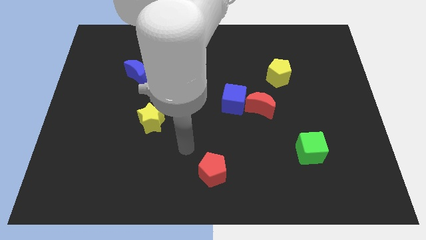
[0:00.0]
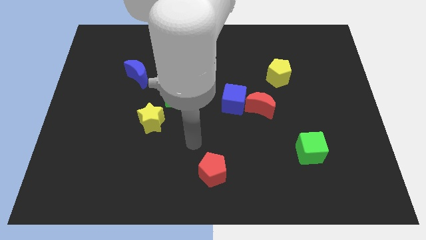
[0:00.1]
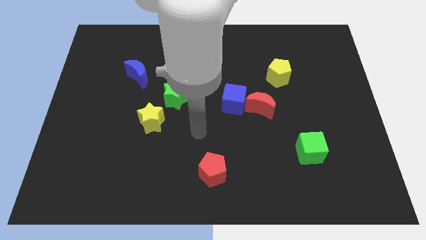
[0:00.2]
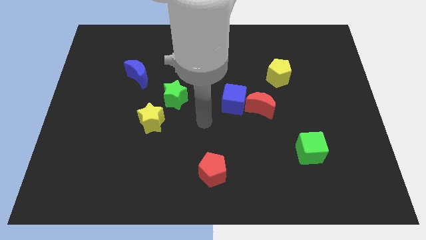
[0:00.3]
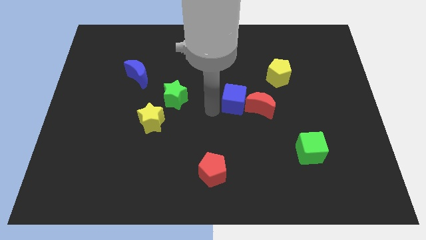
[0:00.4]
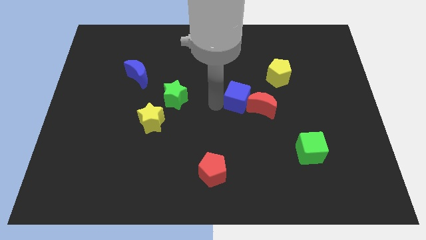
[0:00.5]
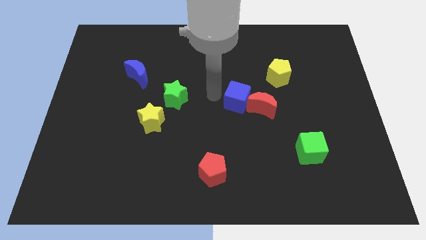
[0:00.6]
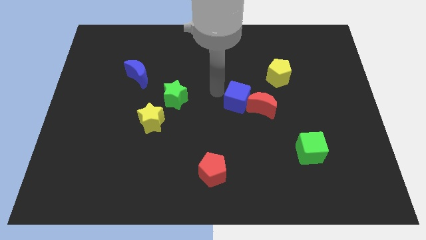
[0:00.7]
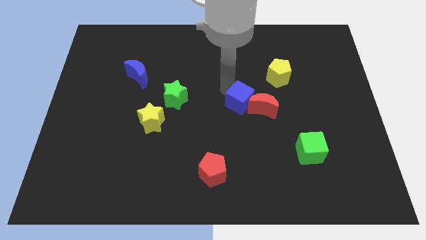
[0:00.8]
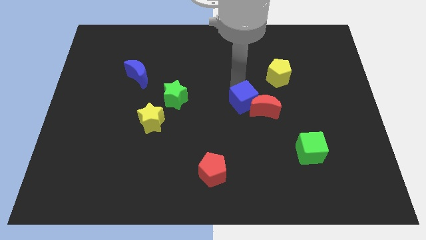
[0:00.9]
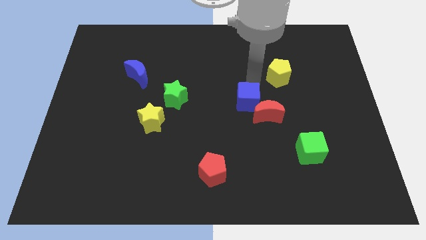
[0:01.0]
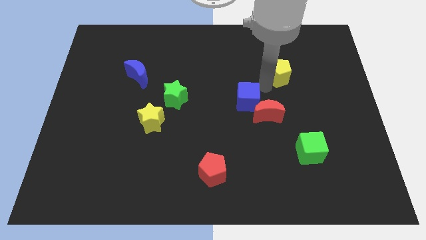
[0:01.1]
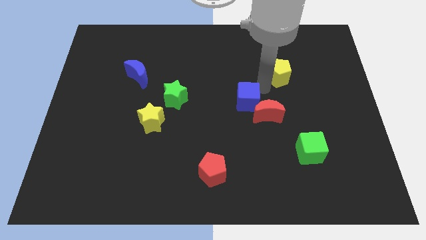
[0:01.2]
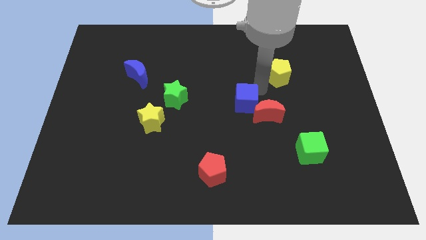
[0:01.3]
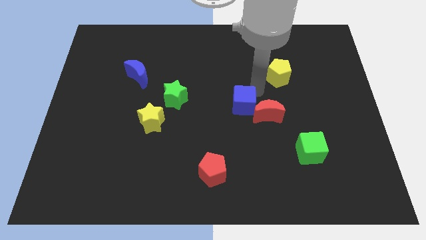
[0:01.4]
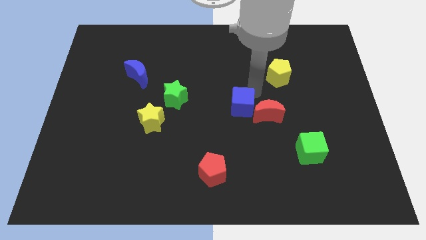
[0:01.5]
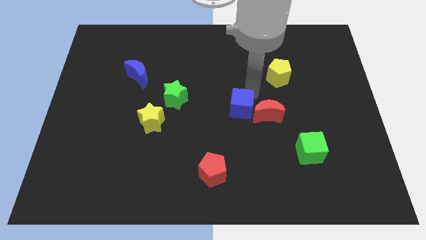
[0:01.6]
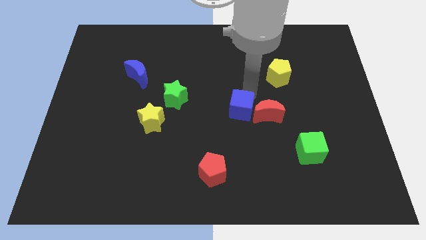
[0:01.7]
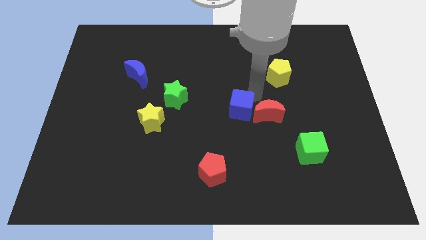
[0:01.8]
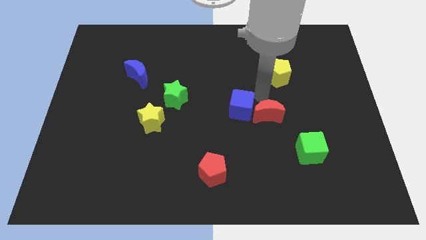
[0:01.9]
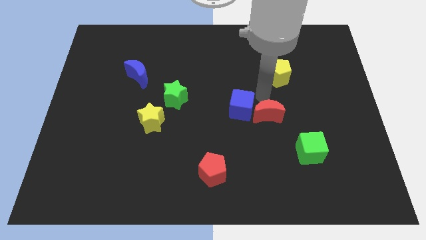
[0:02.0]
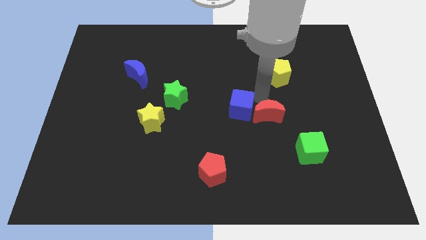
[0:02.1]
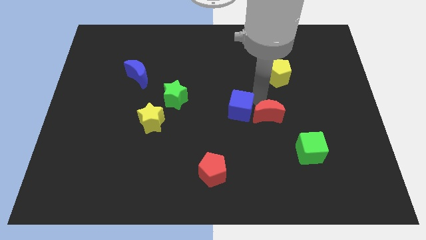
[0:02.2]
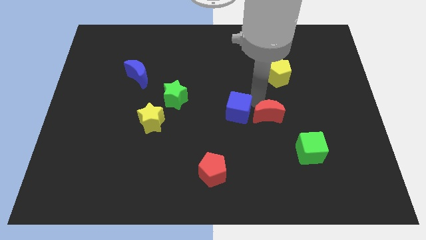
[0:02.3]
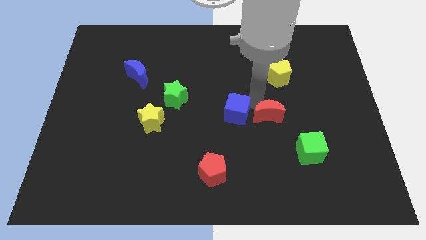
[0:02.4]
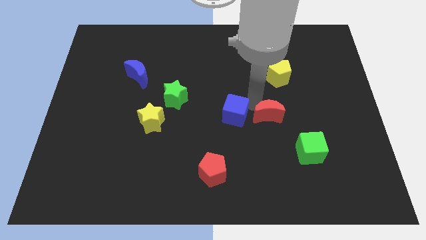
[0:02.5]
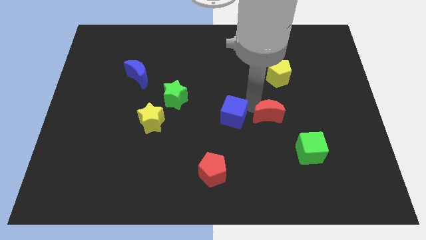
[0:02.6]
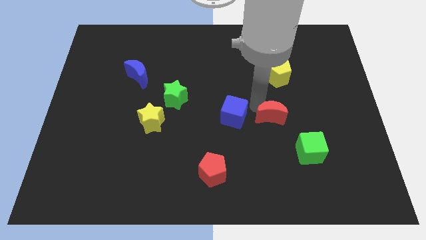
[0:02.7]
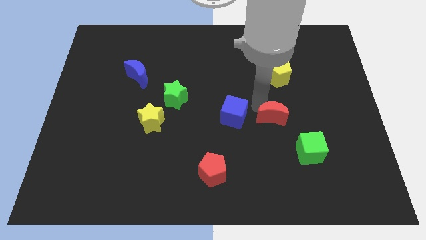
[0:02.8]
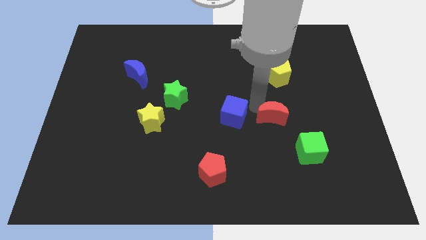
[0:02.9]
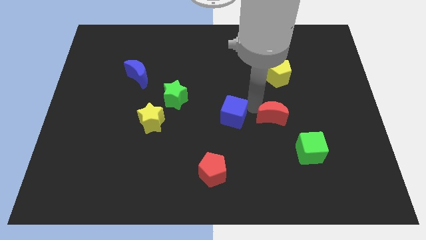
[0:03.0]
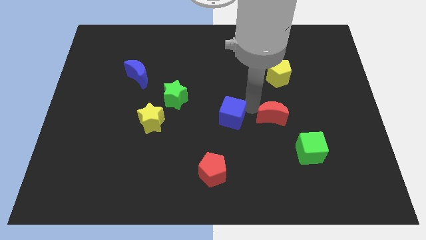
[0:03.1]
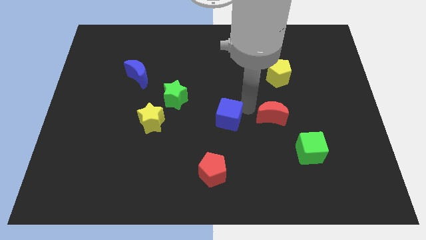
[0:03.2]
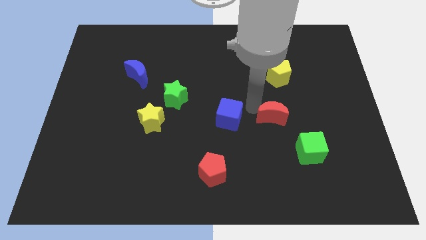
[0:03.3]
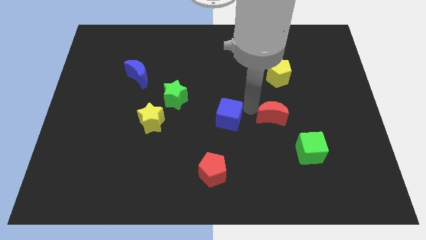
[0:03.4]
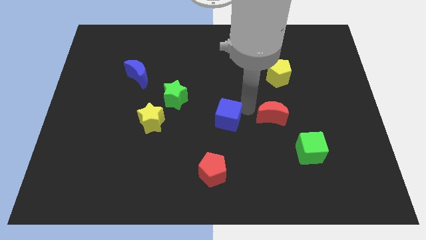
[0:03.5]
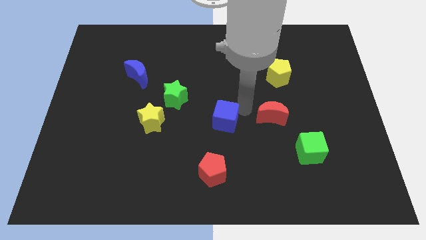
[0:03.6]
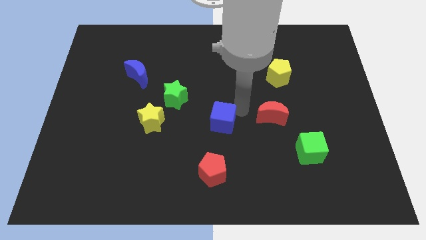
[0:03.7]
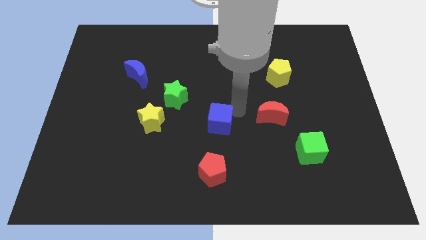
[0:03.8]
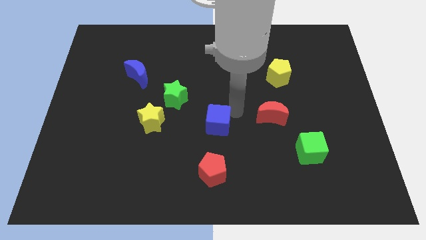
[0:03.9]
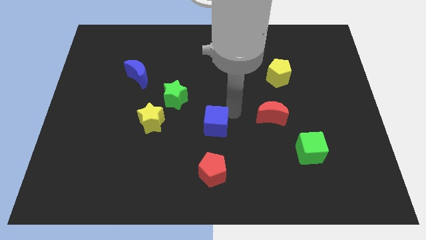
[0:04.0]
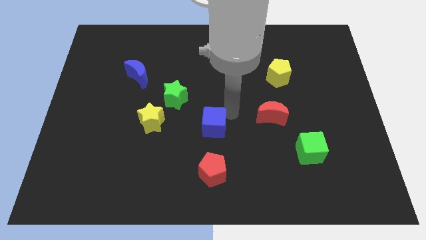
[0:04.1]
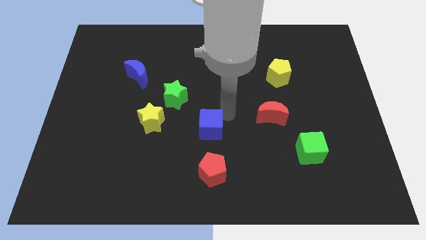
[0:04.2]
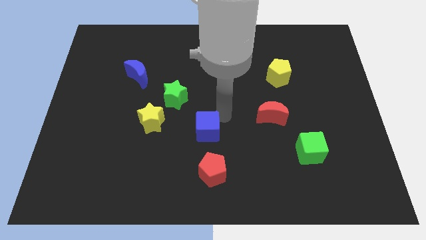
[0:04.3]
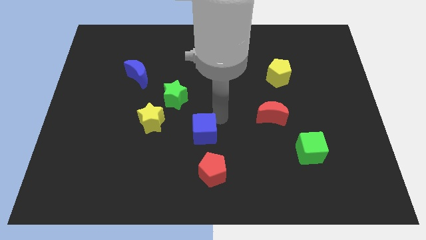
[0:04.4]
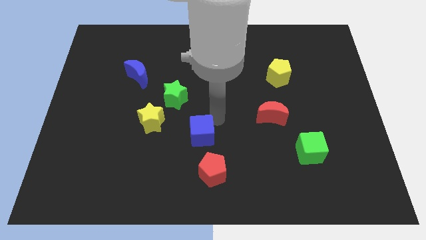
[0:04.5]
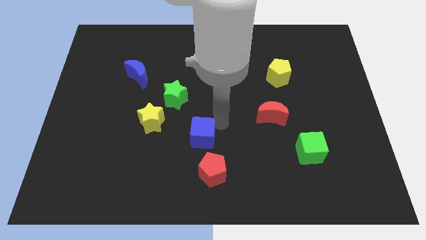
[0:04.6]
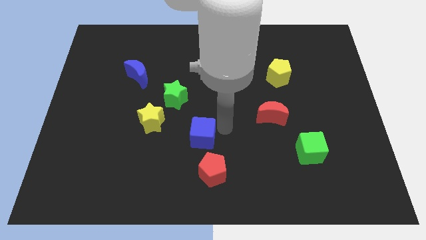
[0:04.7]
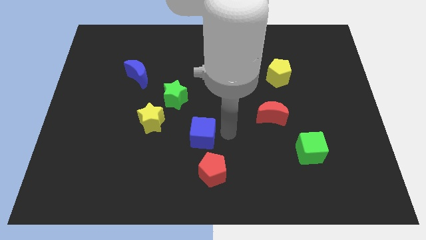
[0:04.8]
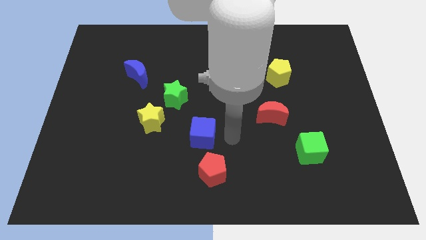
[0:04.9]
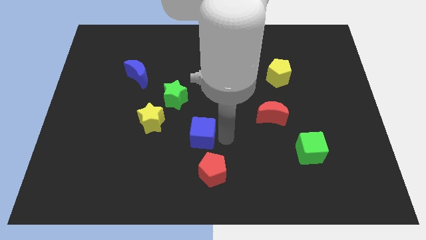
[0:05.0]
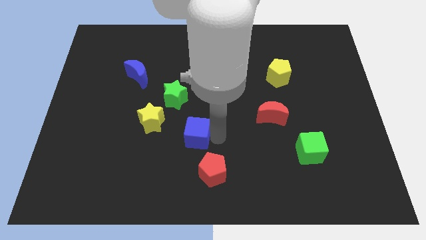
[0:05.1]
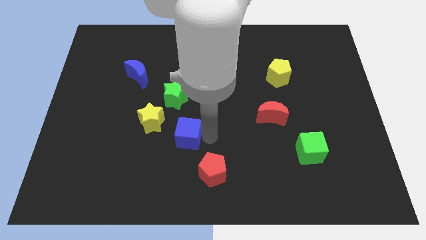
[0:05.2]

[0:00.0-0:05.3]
put the blue cube below the green star

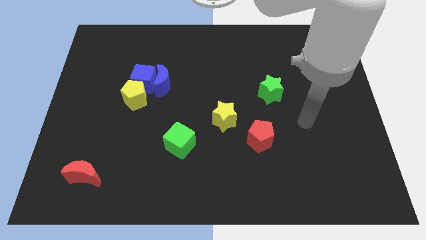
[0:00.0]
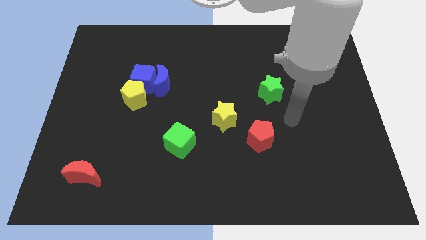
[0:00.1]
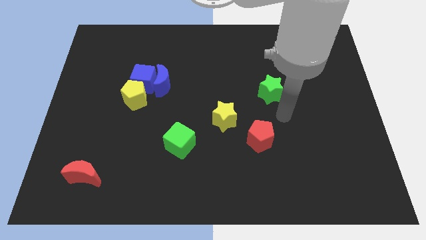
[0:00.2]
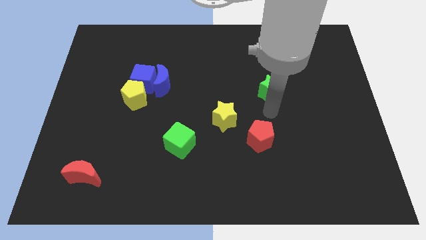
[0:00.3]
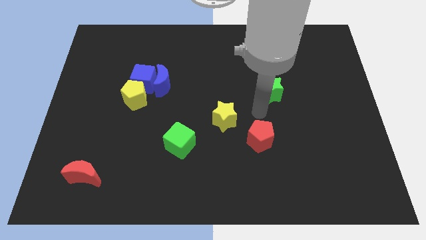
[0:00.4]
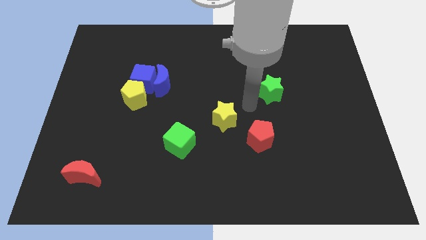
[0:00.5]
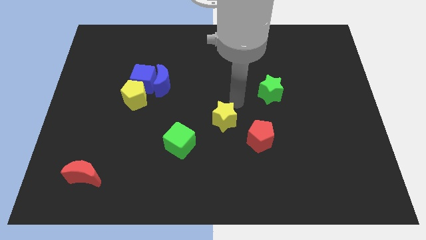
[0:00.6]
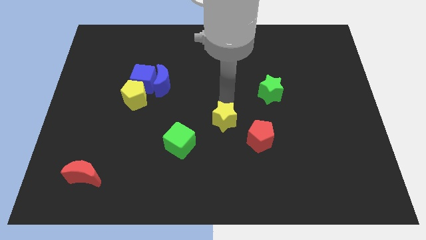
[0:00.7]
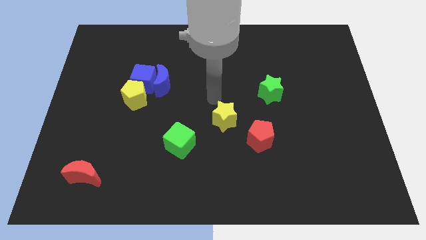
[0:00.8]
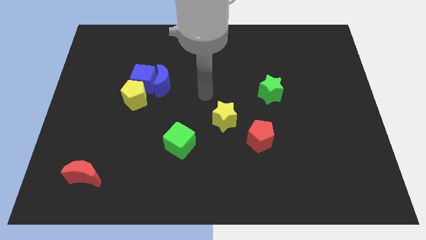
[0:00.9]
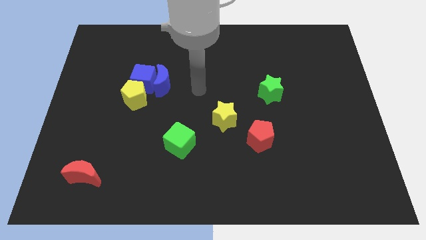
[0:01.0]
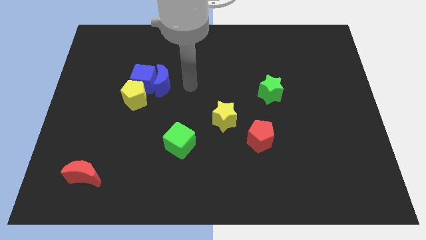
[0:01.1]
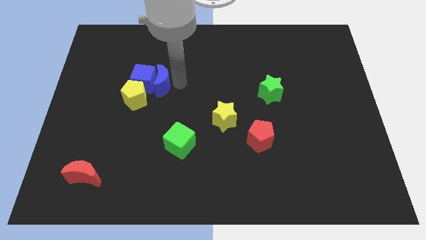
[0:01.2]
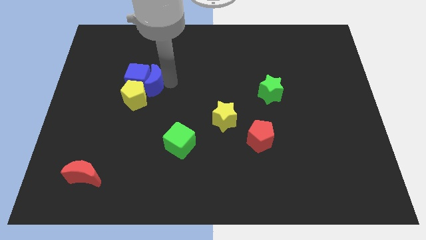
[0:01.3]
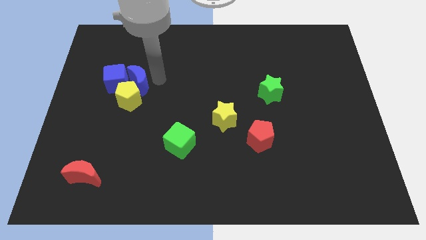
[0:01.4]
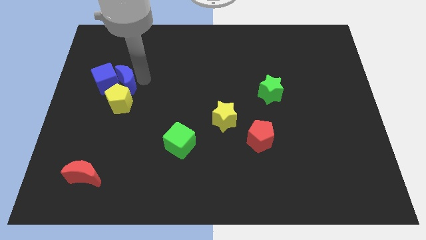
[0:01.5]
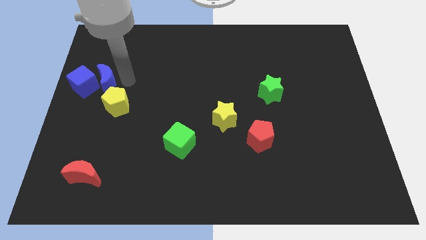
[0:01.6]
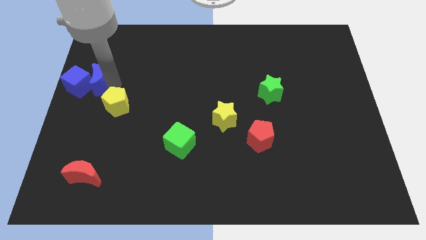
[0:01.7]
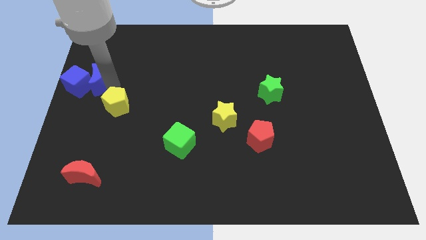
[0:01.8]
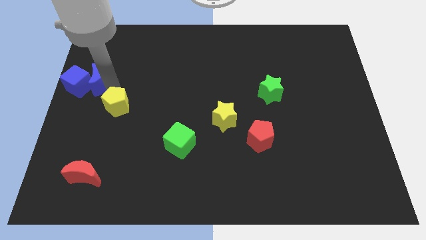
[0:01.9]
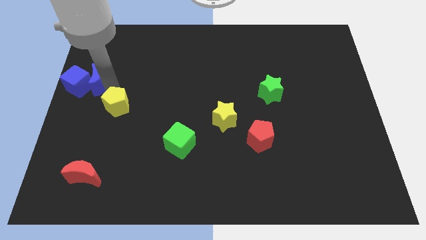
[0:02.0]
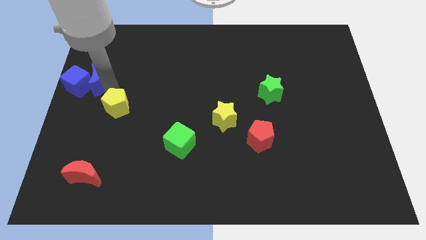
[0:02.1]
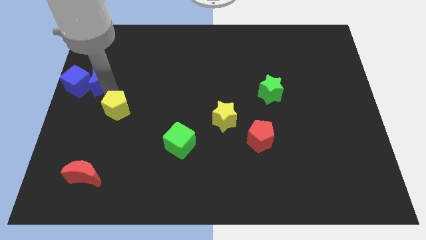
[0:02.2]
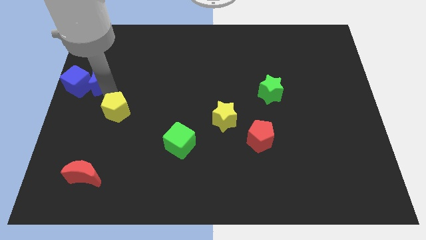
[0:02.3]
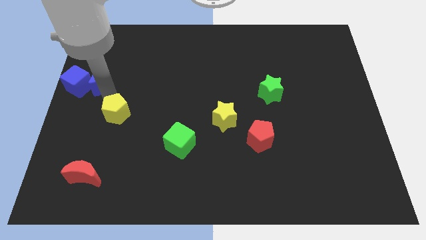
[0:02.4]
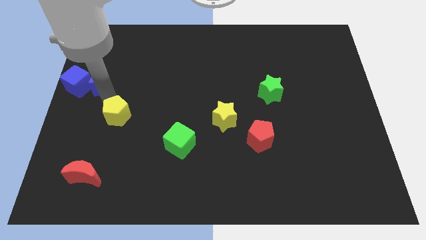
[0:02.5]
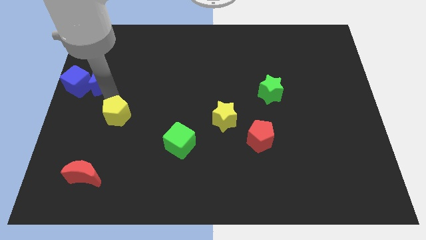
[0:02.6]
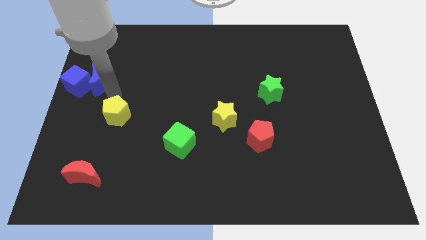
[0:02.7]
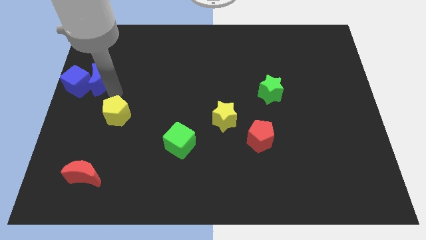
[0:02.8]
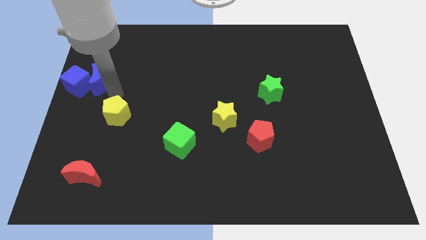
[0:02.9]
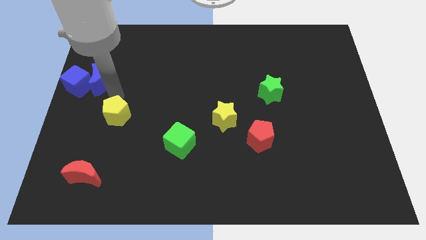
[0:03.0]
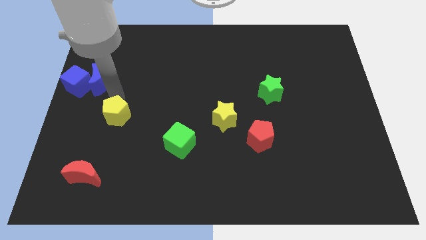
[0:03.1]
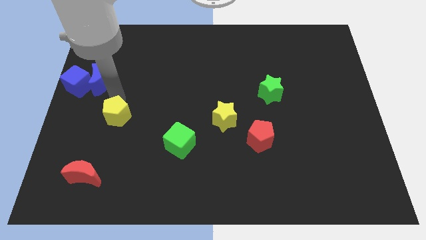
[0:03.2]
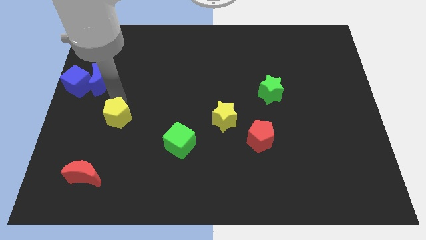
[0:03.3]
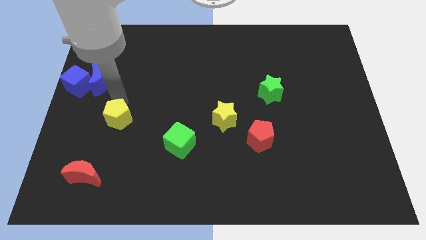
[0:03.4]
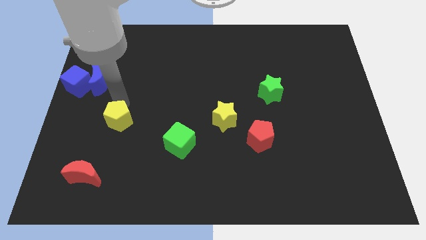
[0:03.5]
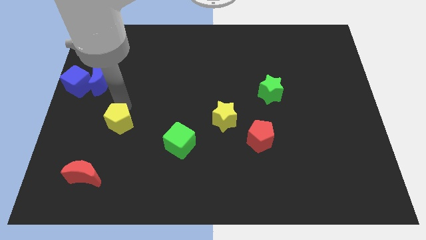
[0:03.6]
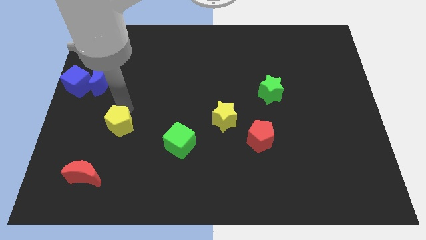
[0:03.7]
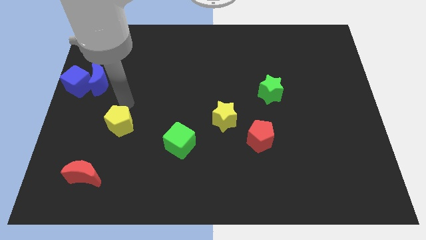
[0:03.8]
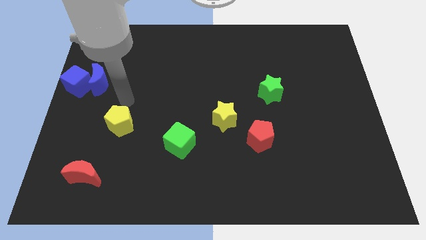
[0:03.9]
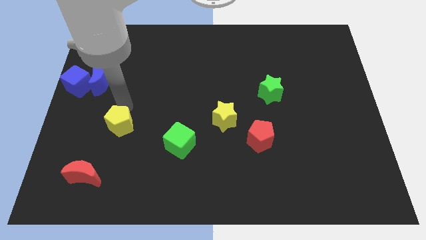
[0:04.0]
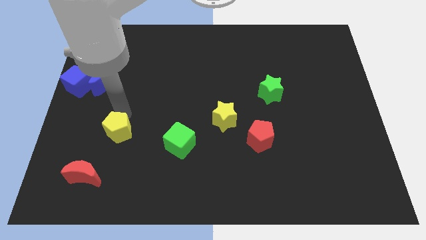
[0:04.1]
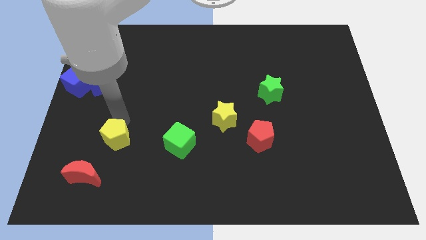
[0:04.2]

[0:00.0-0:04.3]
put the yellow pentagon diagonally up and to the right of the red moon
